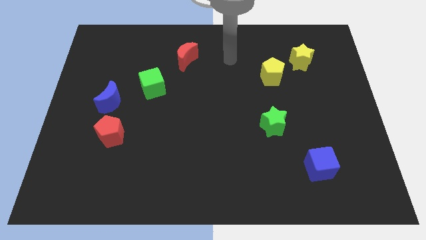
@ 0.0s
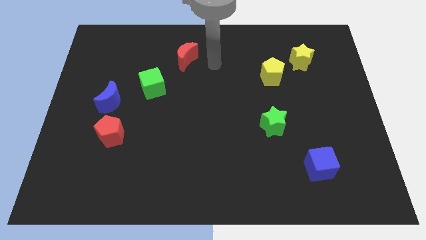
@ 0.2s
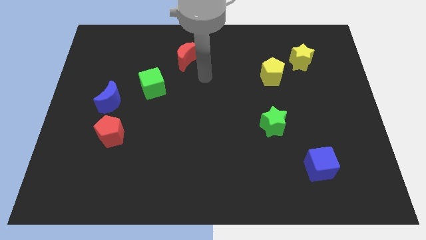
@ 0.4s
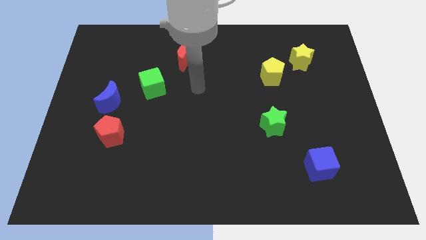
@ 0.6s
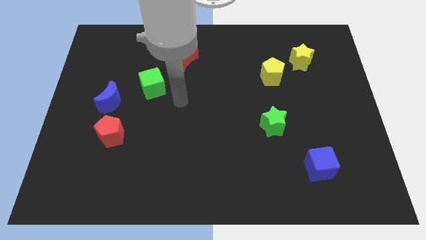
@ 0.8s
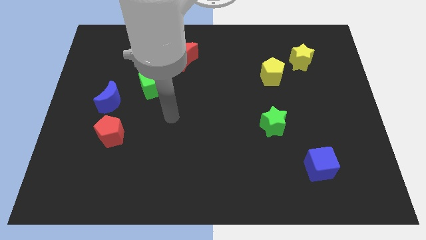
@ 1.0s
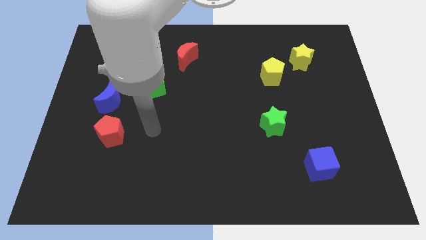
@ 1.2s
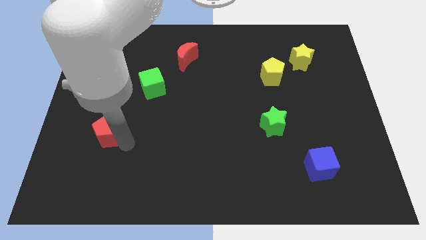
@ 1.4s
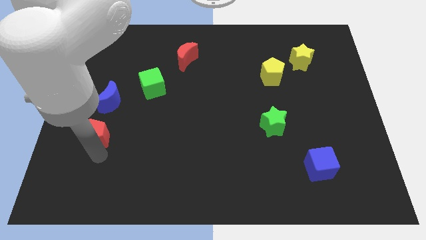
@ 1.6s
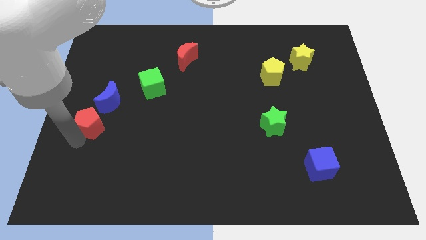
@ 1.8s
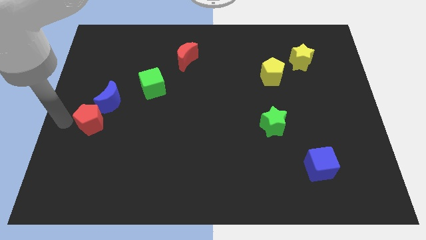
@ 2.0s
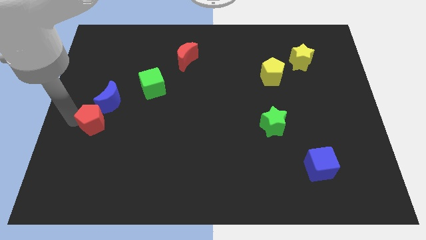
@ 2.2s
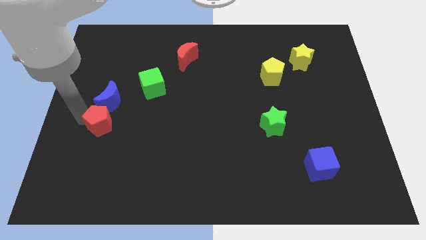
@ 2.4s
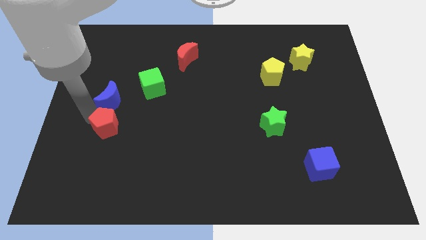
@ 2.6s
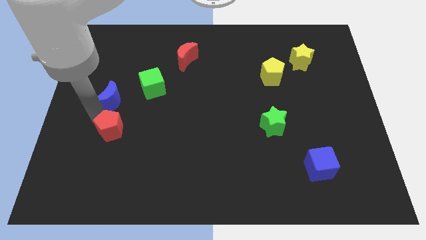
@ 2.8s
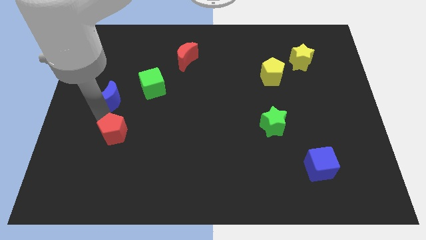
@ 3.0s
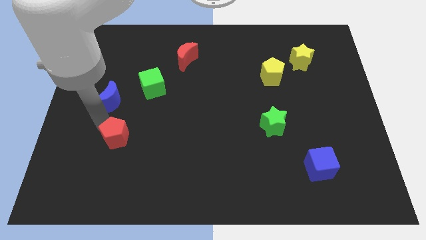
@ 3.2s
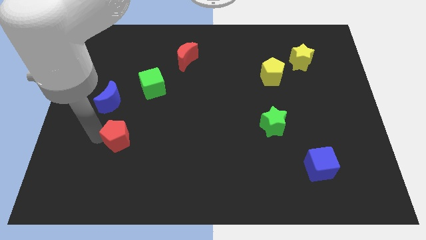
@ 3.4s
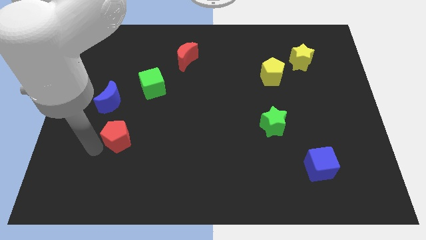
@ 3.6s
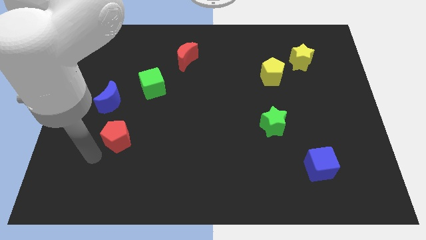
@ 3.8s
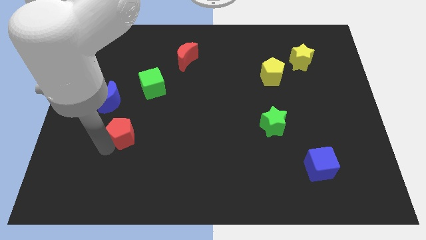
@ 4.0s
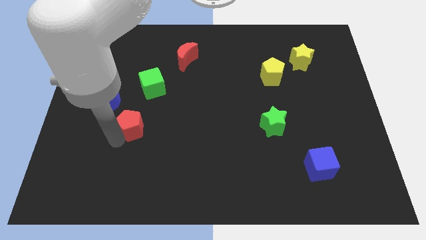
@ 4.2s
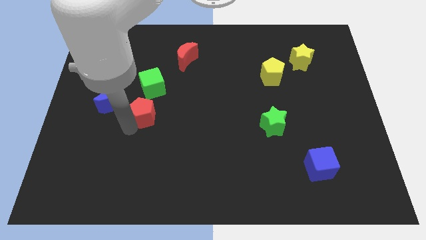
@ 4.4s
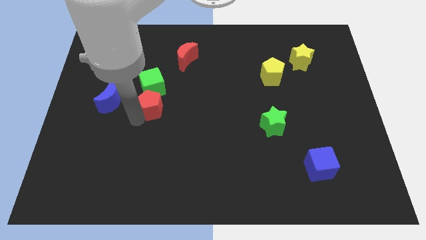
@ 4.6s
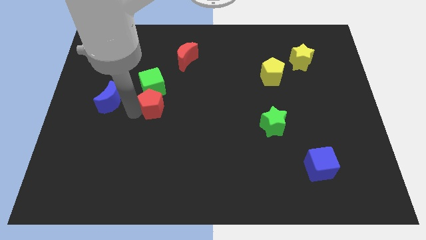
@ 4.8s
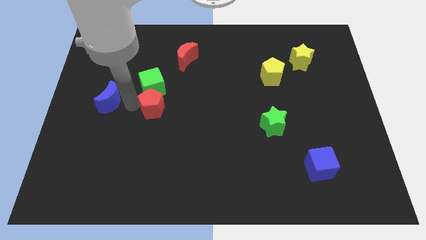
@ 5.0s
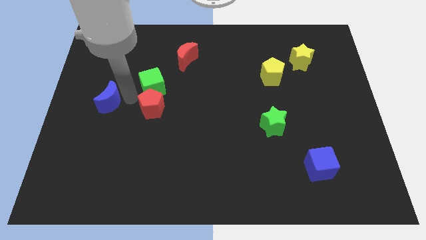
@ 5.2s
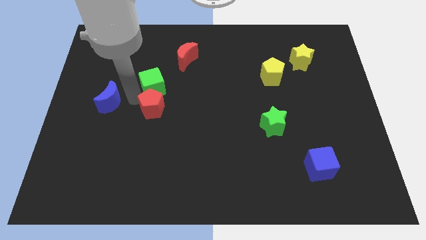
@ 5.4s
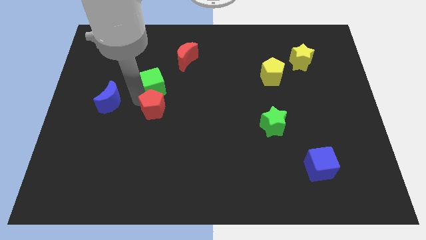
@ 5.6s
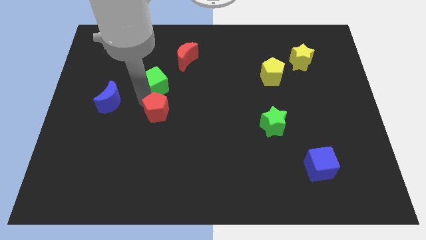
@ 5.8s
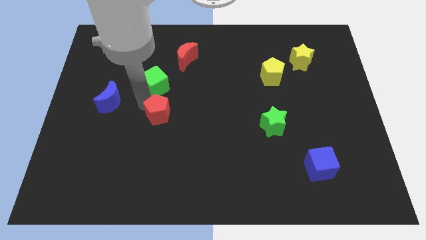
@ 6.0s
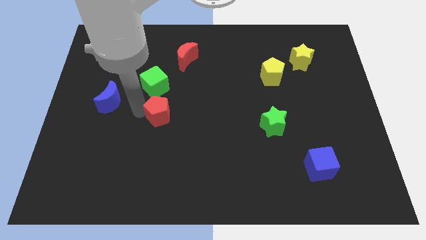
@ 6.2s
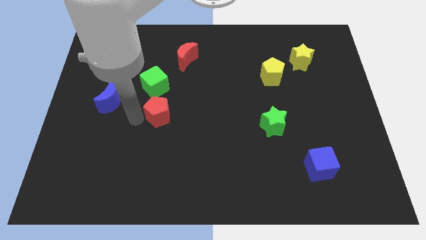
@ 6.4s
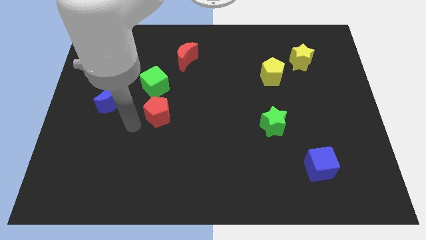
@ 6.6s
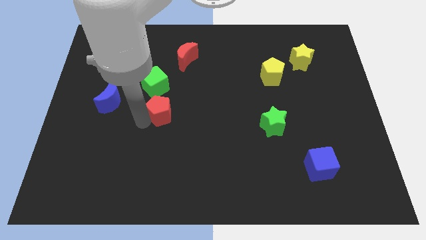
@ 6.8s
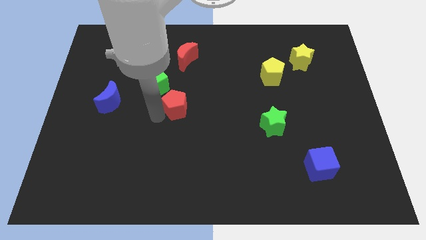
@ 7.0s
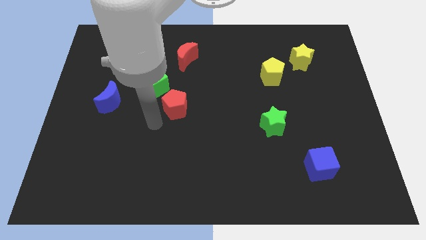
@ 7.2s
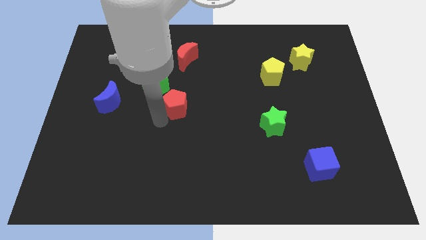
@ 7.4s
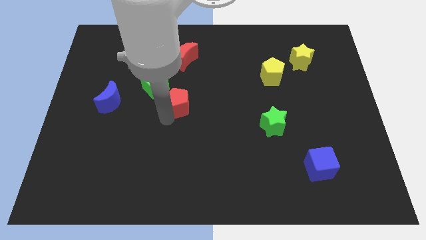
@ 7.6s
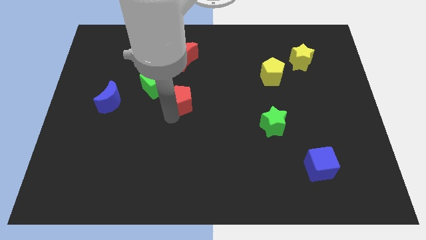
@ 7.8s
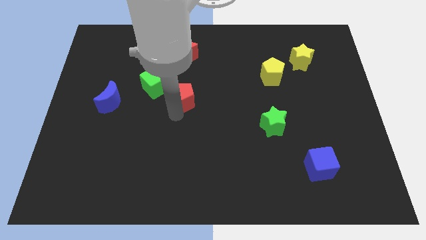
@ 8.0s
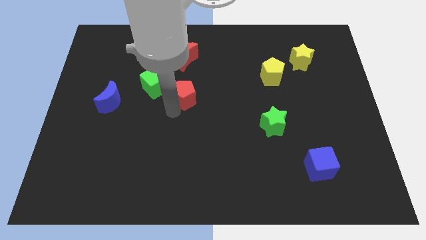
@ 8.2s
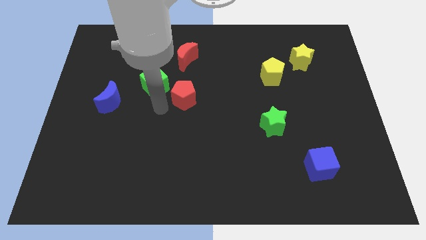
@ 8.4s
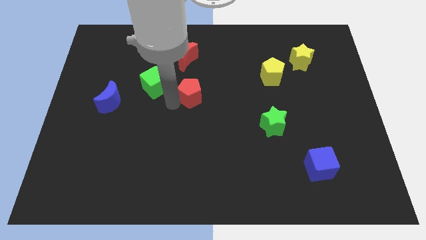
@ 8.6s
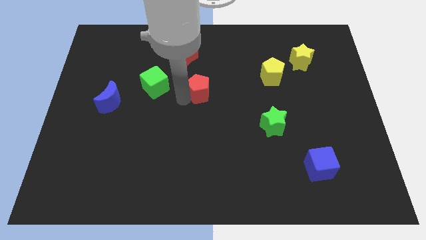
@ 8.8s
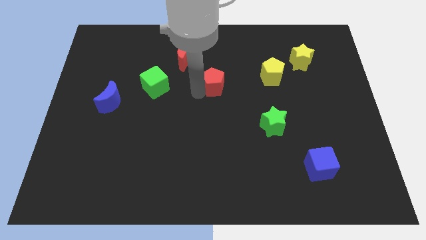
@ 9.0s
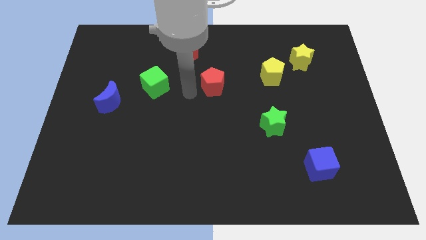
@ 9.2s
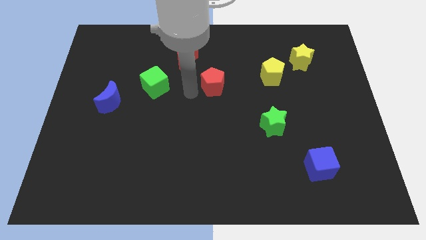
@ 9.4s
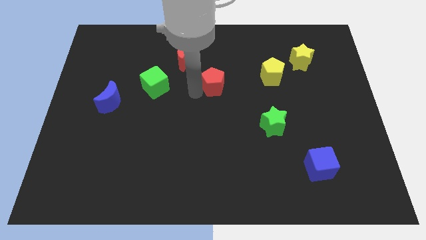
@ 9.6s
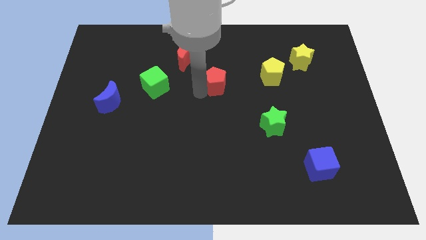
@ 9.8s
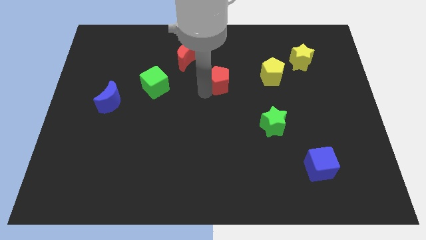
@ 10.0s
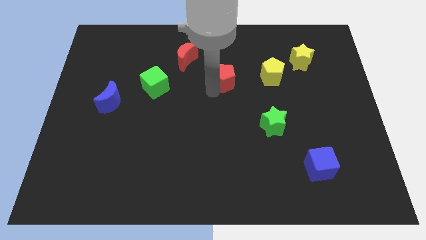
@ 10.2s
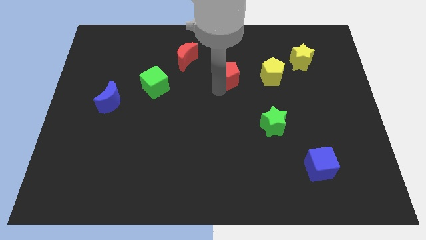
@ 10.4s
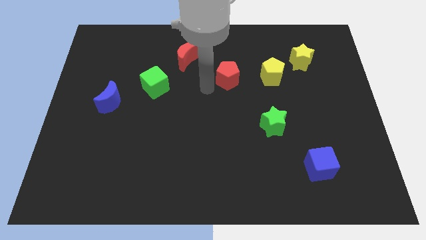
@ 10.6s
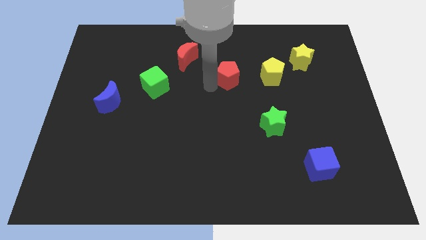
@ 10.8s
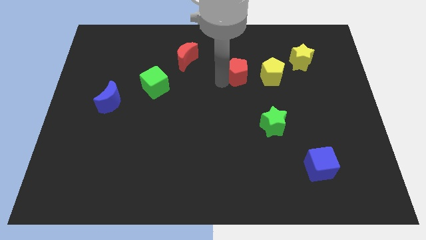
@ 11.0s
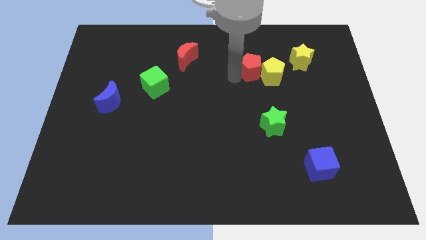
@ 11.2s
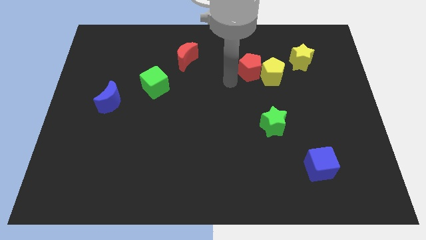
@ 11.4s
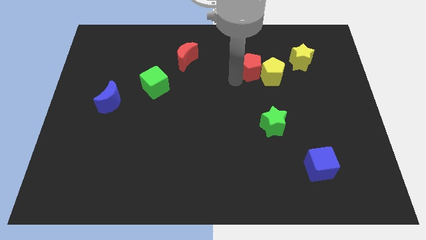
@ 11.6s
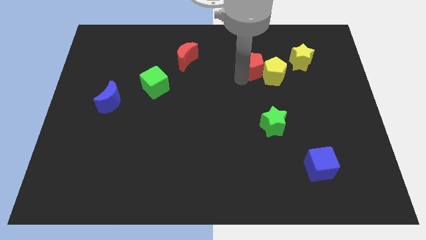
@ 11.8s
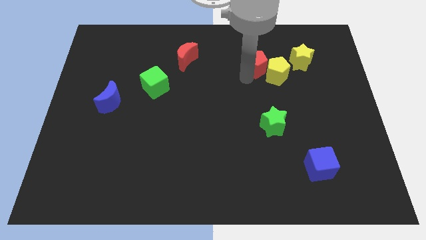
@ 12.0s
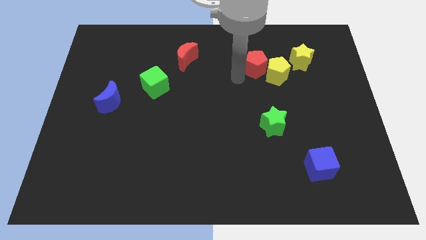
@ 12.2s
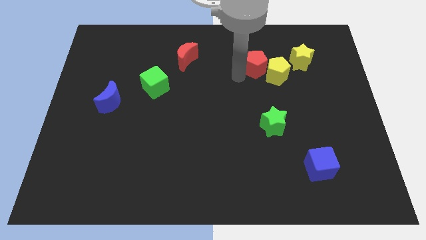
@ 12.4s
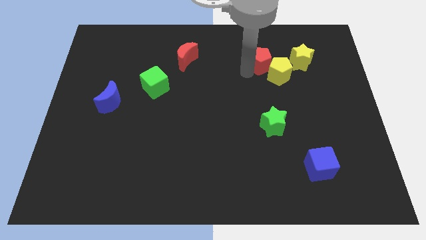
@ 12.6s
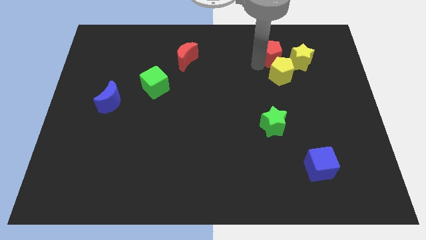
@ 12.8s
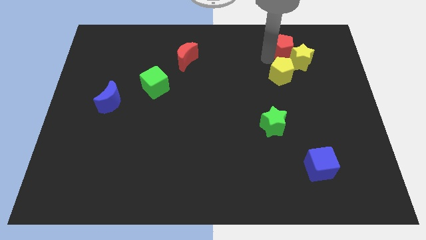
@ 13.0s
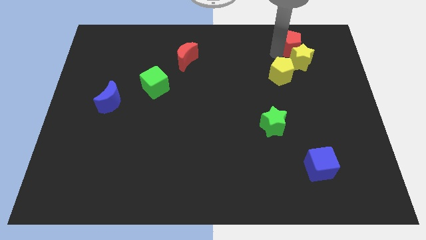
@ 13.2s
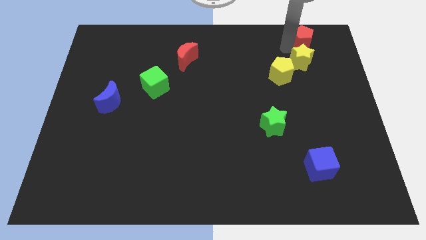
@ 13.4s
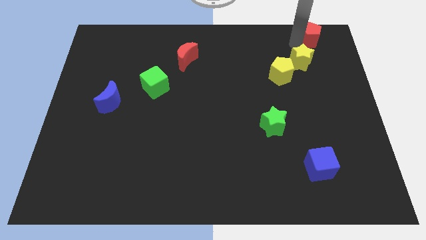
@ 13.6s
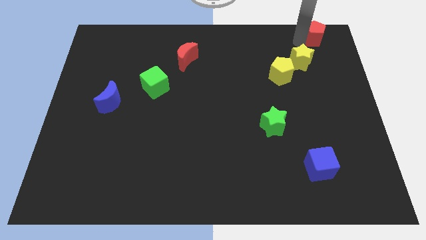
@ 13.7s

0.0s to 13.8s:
push the red pentagon to the top right
